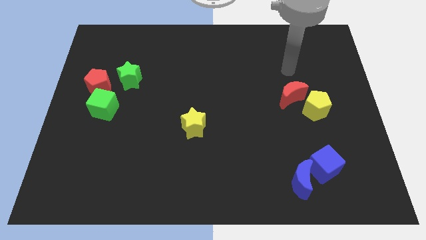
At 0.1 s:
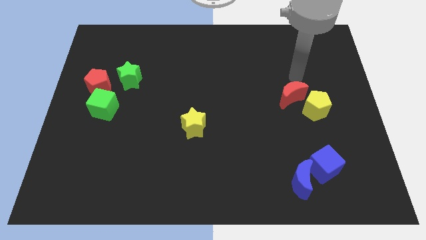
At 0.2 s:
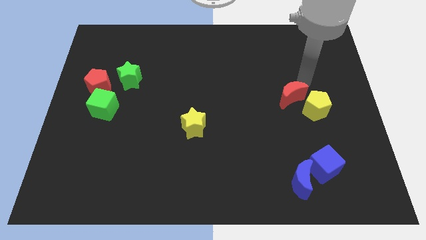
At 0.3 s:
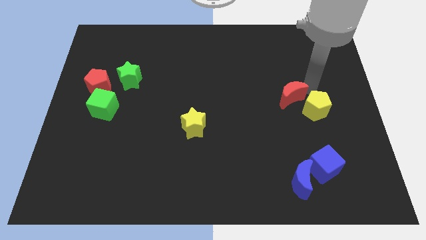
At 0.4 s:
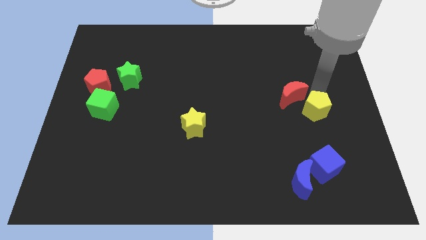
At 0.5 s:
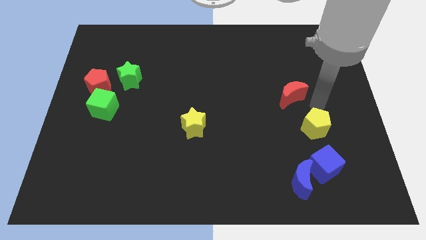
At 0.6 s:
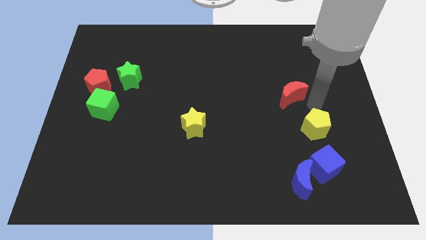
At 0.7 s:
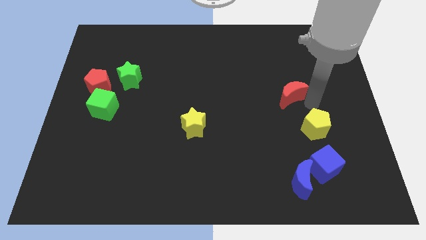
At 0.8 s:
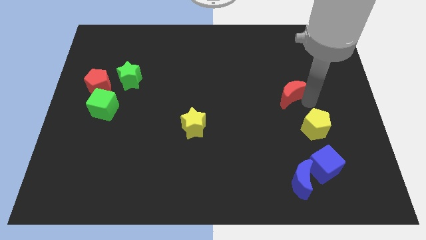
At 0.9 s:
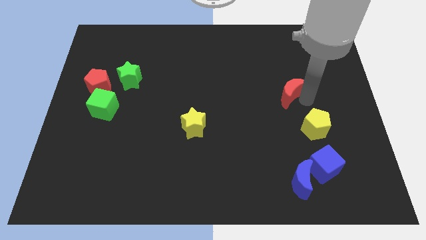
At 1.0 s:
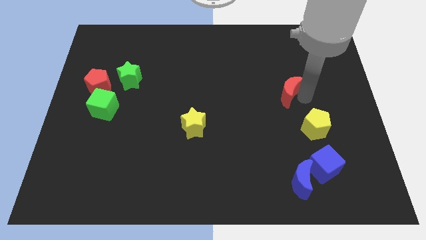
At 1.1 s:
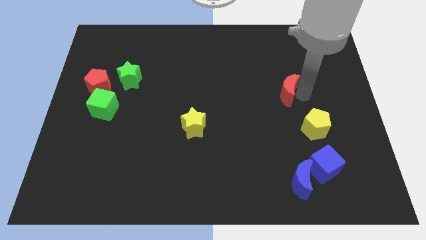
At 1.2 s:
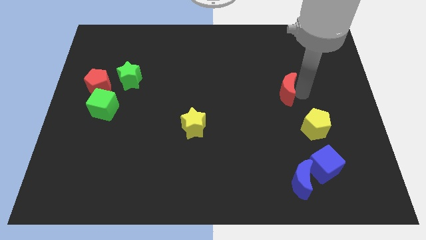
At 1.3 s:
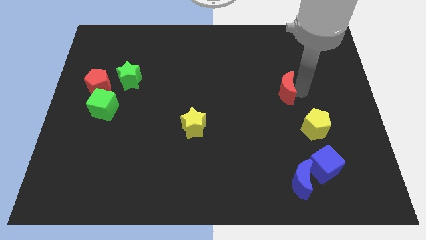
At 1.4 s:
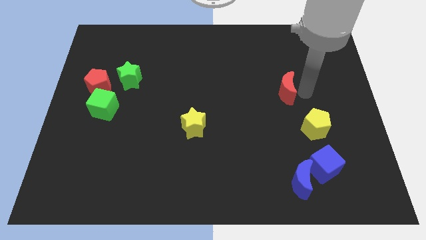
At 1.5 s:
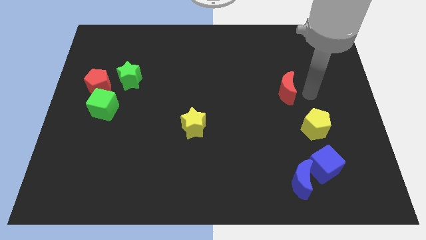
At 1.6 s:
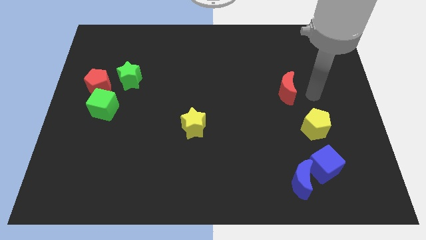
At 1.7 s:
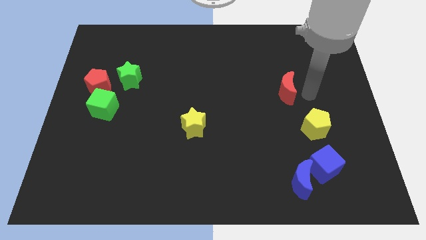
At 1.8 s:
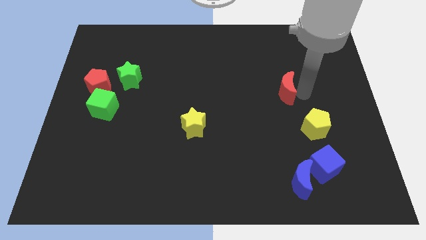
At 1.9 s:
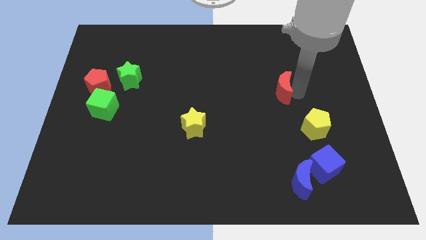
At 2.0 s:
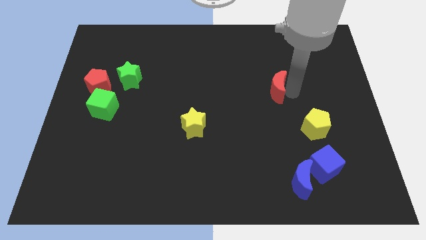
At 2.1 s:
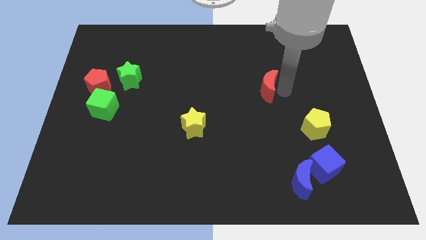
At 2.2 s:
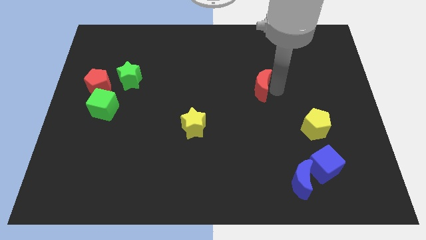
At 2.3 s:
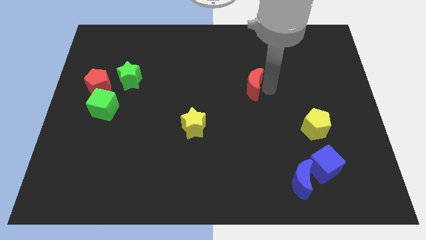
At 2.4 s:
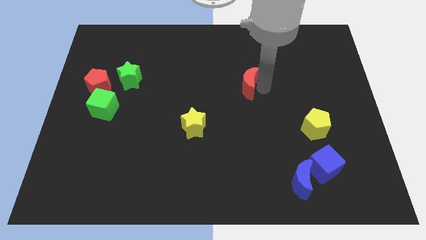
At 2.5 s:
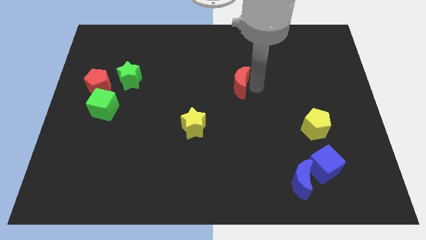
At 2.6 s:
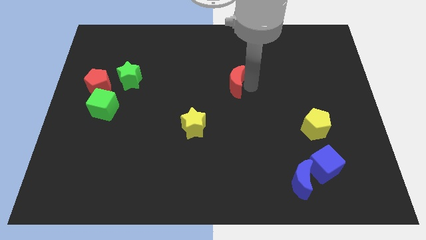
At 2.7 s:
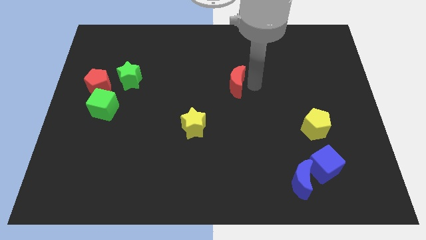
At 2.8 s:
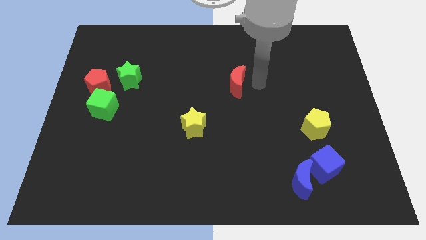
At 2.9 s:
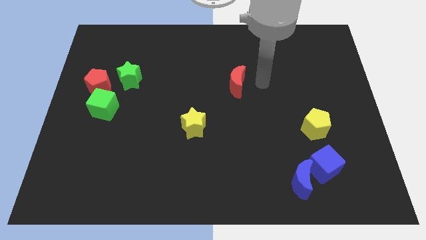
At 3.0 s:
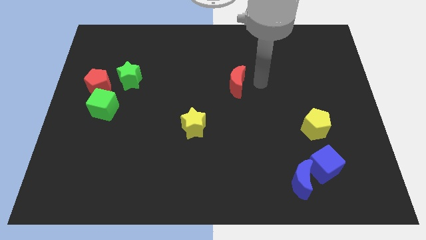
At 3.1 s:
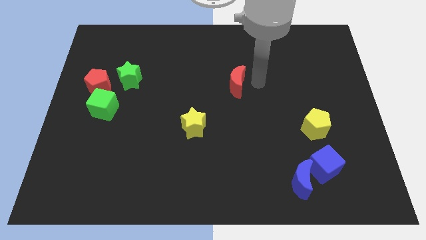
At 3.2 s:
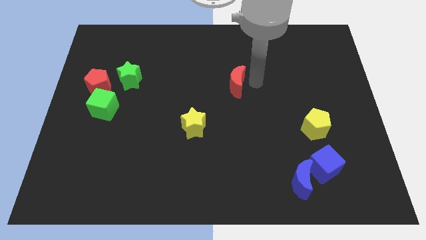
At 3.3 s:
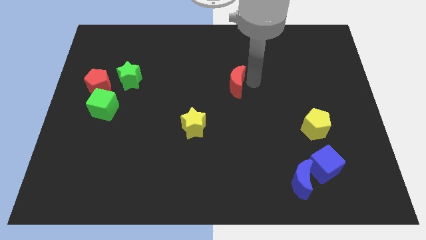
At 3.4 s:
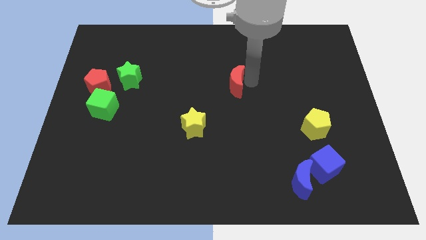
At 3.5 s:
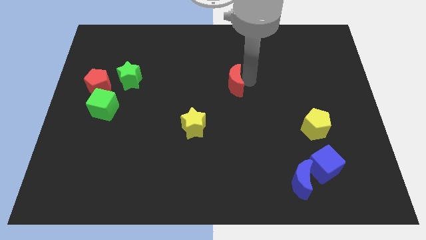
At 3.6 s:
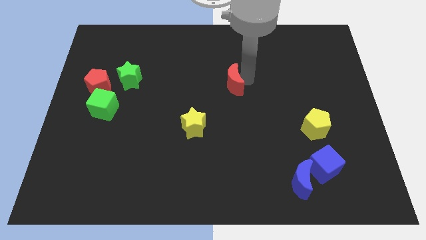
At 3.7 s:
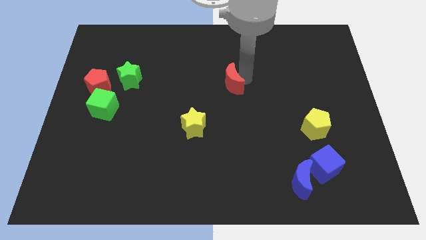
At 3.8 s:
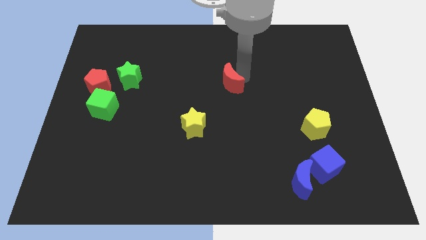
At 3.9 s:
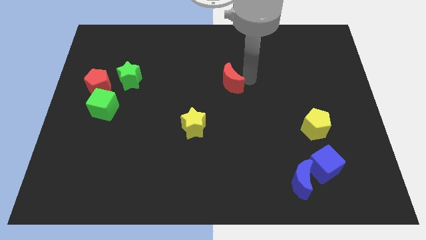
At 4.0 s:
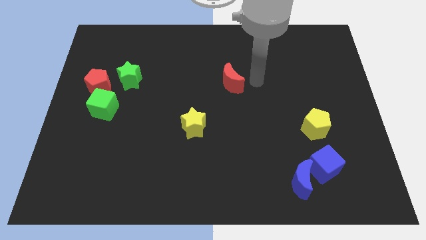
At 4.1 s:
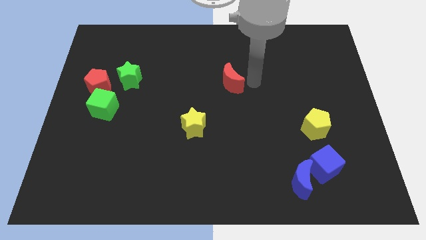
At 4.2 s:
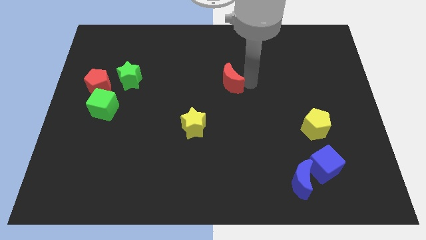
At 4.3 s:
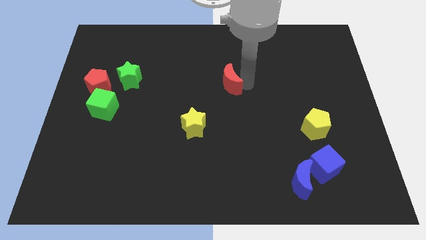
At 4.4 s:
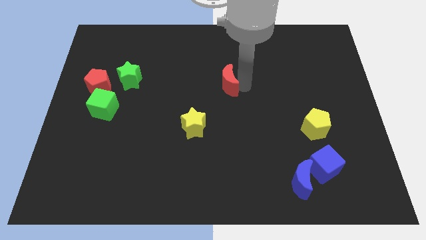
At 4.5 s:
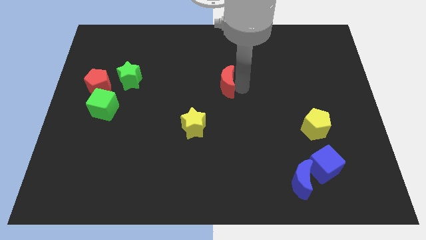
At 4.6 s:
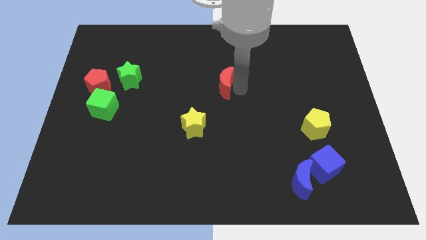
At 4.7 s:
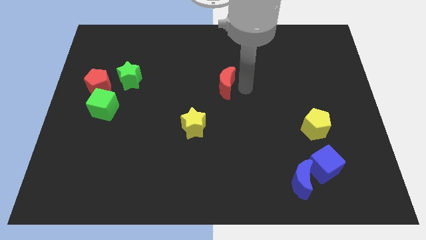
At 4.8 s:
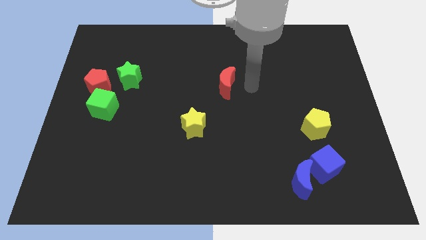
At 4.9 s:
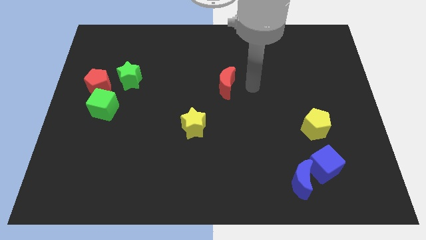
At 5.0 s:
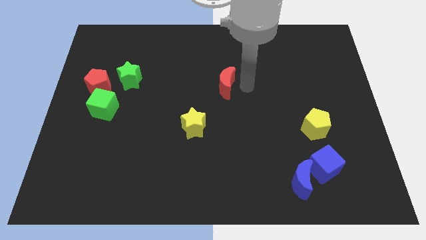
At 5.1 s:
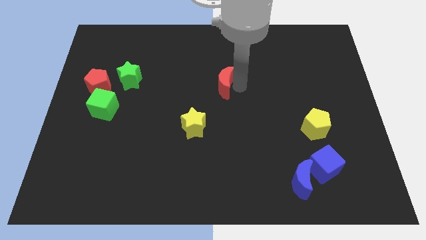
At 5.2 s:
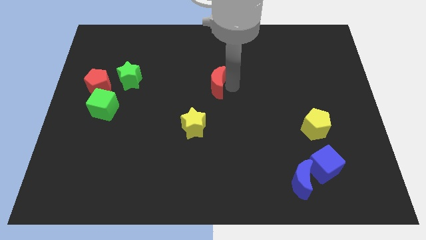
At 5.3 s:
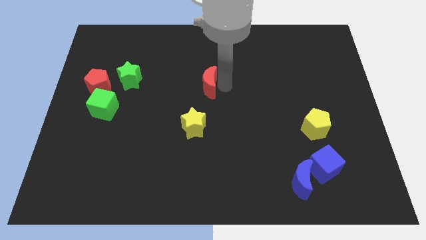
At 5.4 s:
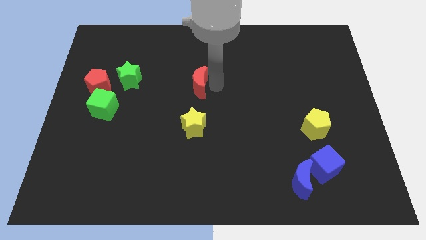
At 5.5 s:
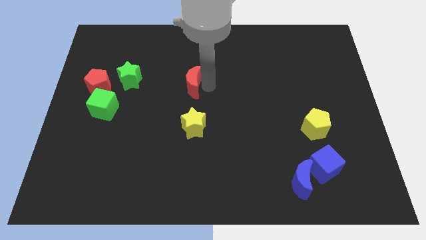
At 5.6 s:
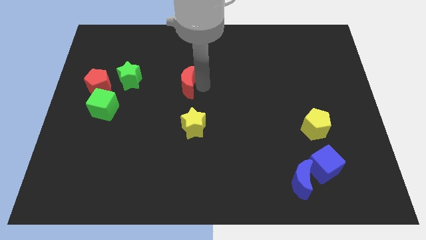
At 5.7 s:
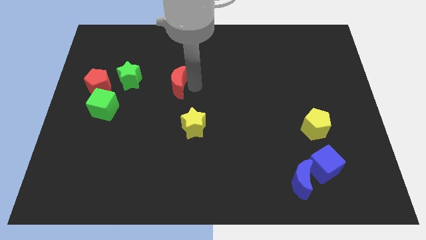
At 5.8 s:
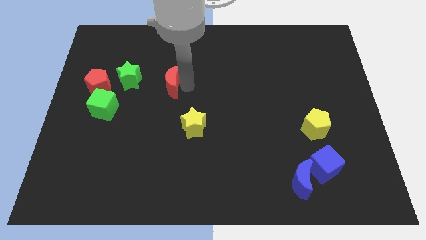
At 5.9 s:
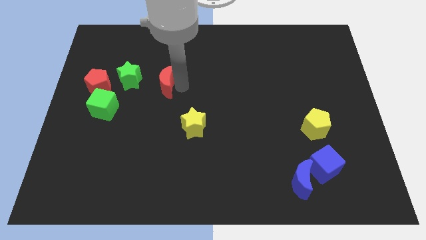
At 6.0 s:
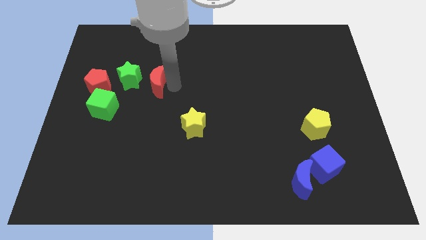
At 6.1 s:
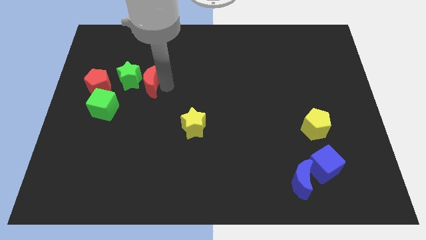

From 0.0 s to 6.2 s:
put the red moon towards the green star

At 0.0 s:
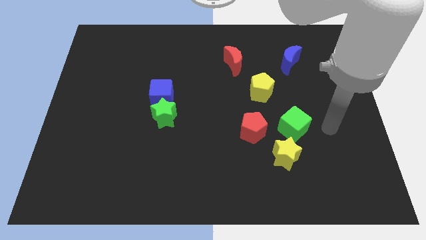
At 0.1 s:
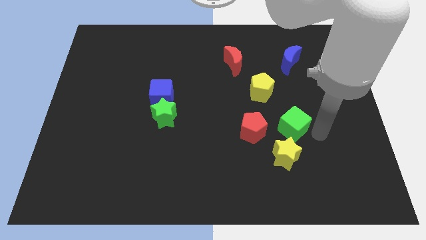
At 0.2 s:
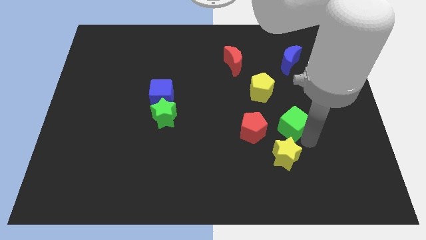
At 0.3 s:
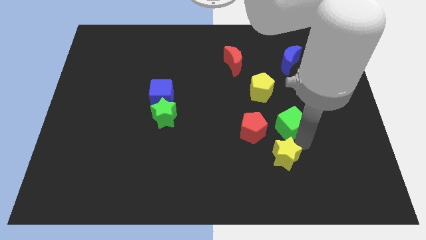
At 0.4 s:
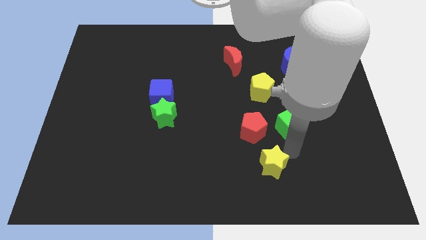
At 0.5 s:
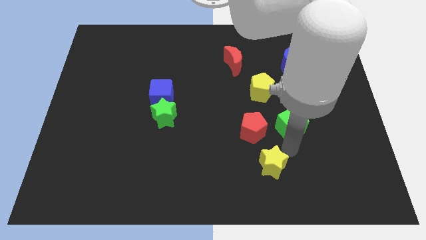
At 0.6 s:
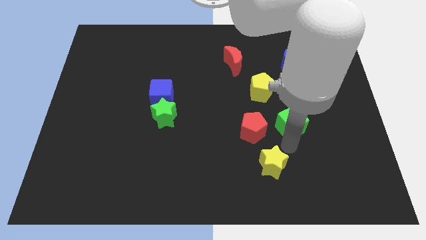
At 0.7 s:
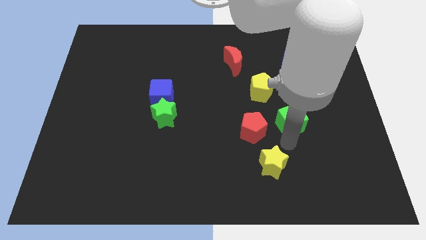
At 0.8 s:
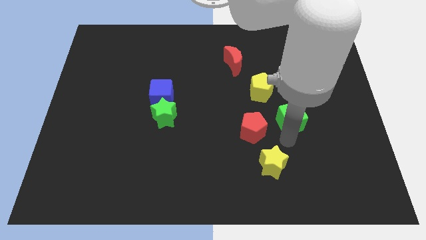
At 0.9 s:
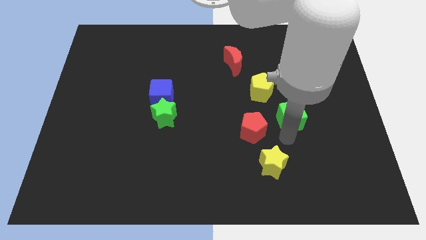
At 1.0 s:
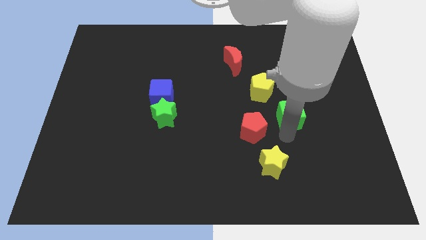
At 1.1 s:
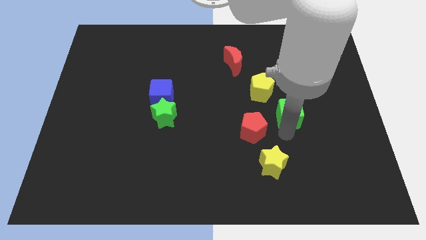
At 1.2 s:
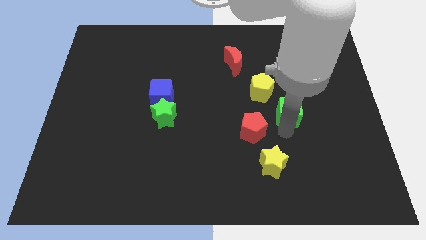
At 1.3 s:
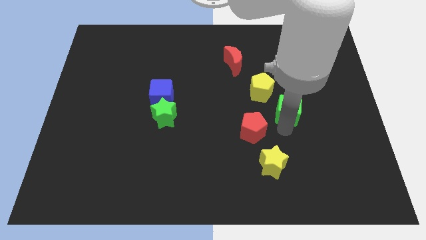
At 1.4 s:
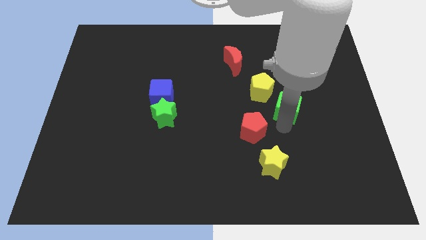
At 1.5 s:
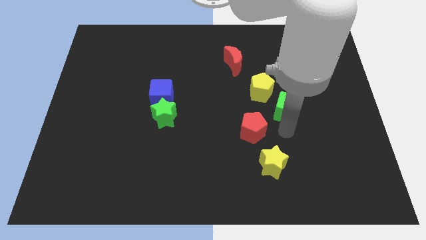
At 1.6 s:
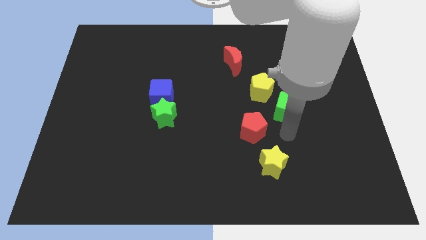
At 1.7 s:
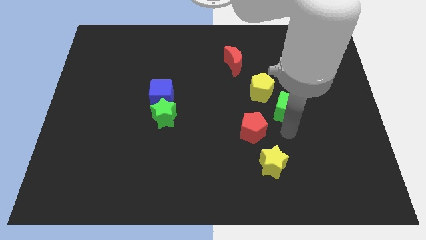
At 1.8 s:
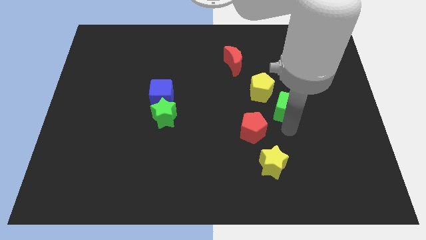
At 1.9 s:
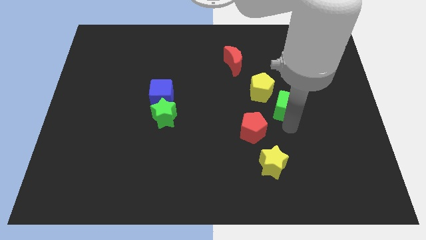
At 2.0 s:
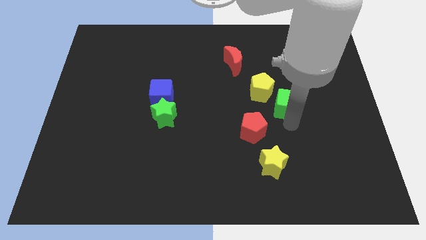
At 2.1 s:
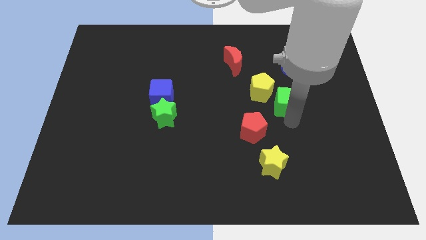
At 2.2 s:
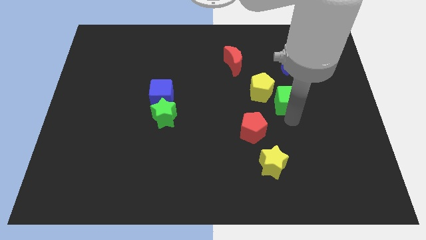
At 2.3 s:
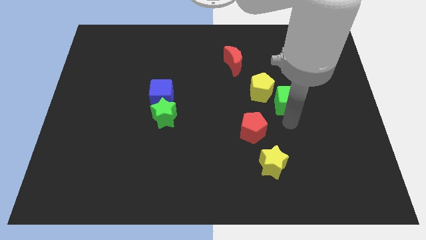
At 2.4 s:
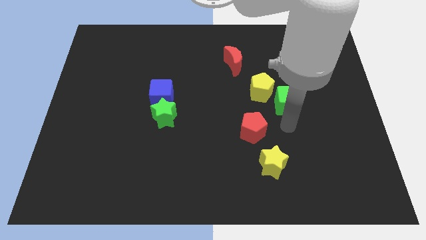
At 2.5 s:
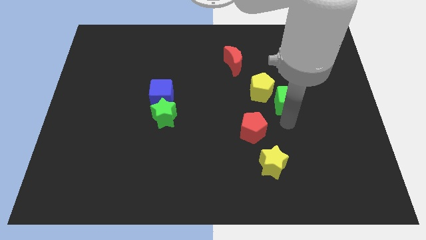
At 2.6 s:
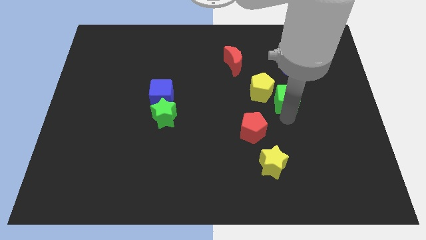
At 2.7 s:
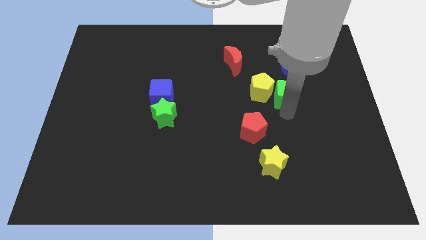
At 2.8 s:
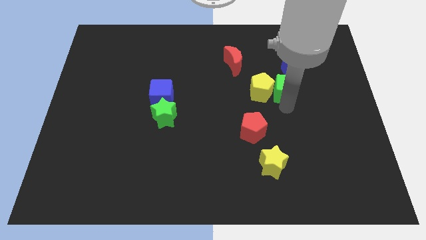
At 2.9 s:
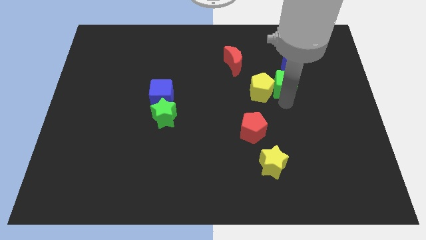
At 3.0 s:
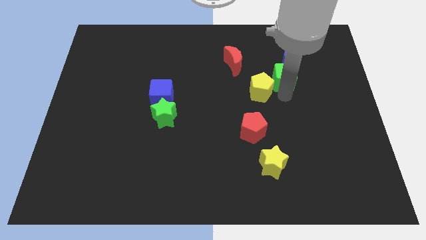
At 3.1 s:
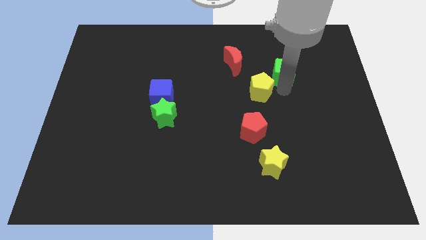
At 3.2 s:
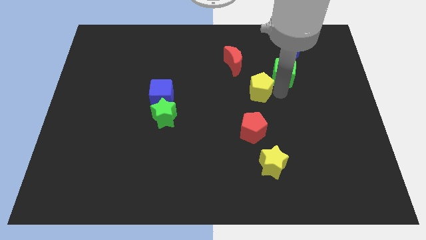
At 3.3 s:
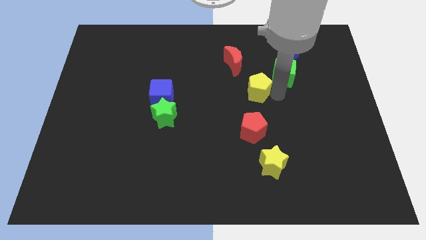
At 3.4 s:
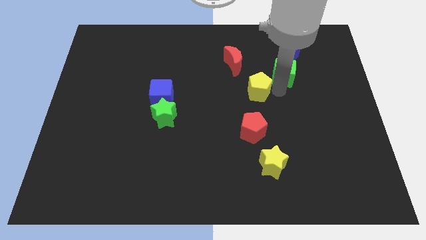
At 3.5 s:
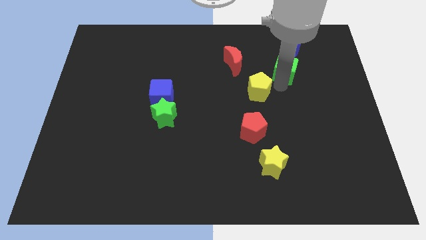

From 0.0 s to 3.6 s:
slide the green cube towards the blue moon
